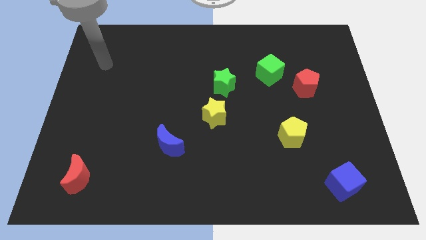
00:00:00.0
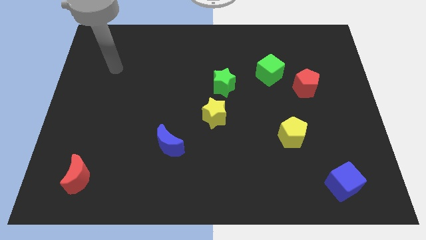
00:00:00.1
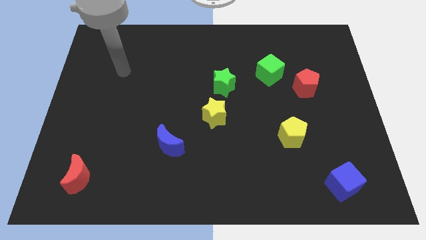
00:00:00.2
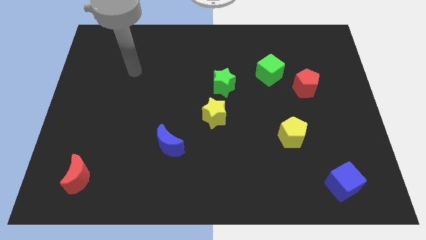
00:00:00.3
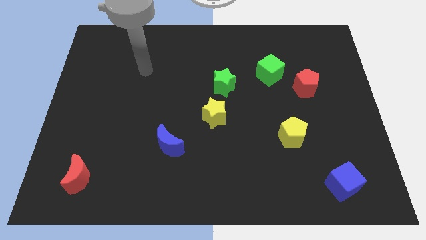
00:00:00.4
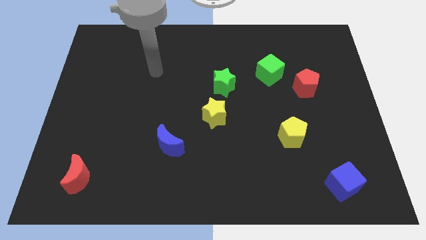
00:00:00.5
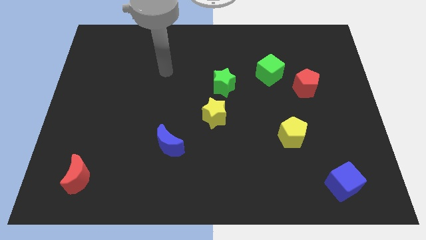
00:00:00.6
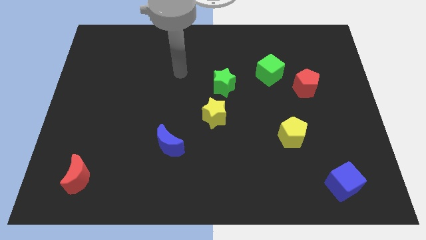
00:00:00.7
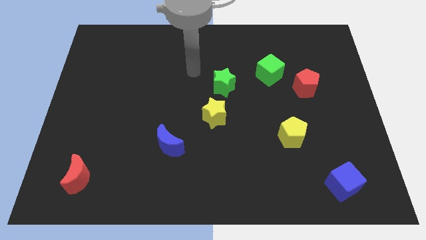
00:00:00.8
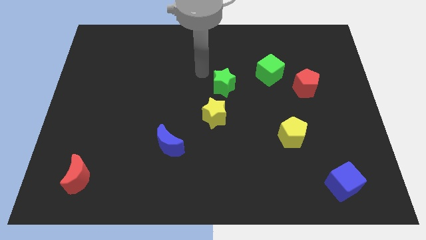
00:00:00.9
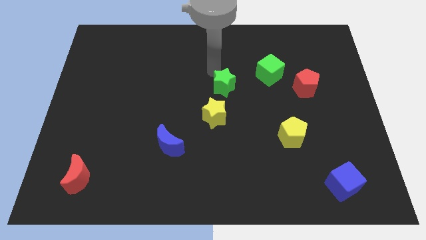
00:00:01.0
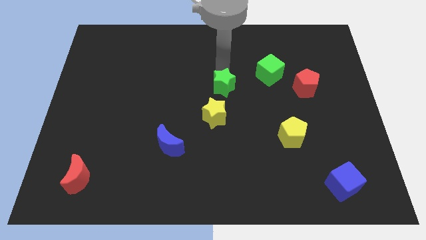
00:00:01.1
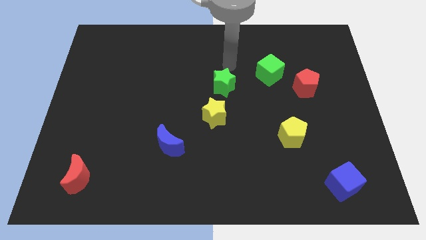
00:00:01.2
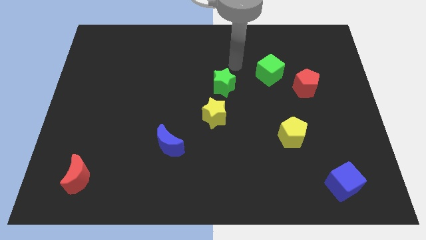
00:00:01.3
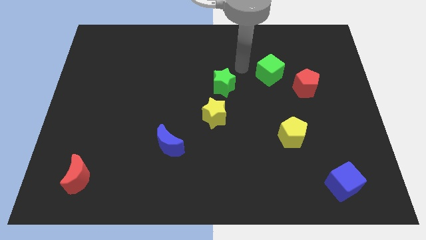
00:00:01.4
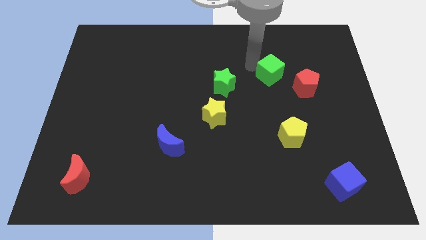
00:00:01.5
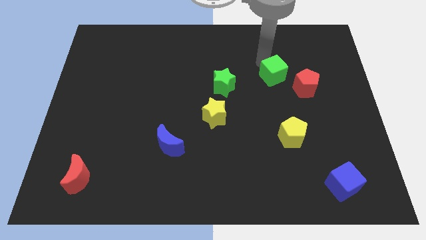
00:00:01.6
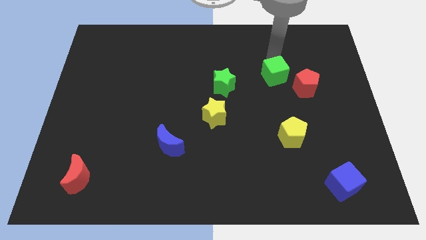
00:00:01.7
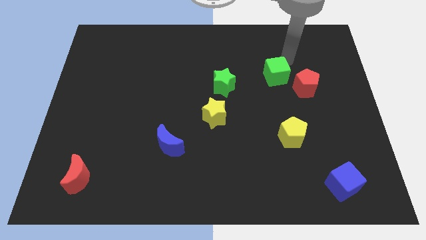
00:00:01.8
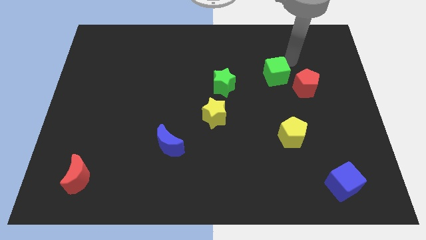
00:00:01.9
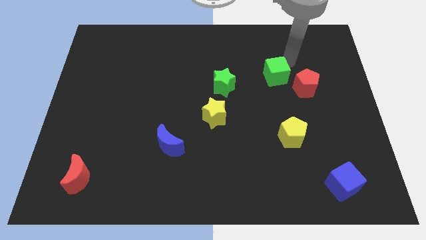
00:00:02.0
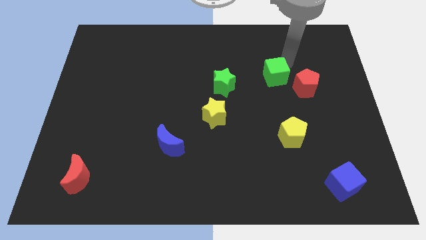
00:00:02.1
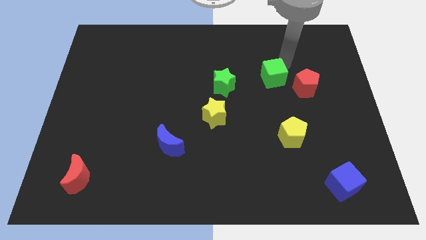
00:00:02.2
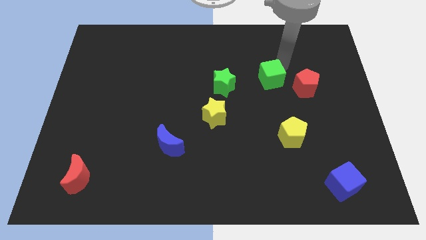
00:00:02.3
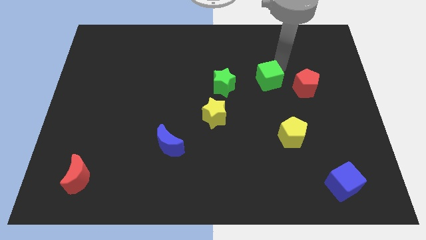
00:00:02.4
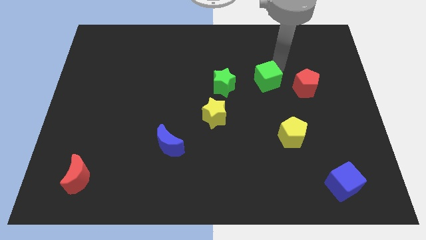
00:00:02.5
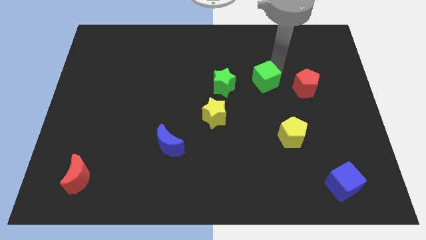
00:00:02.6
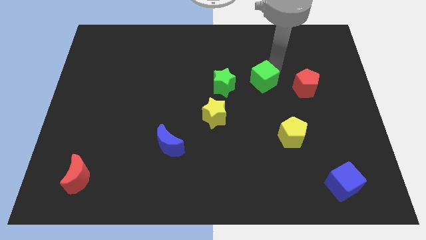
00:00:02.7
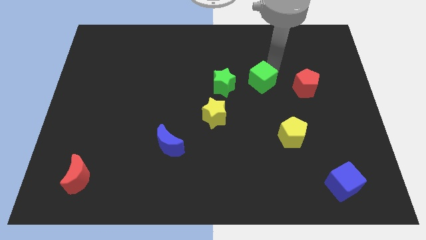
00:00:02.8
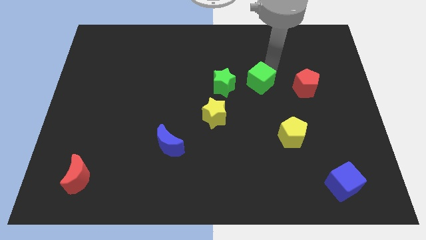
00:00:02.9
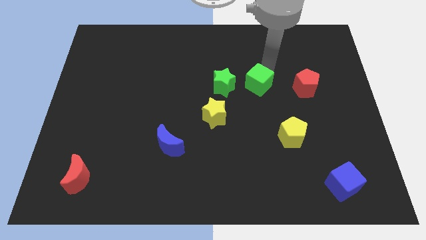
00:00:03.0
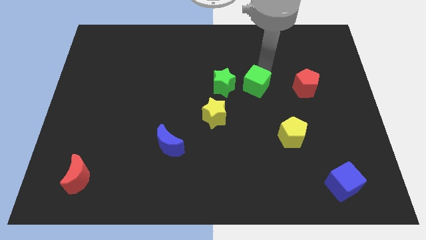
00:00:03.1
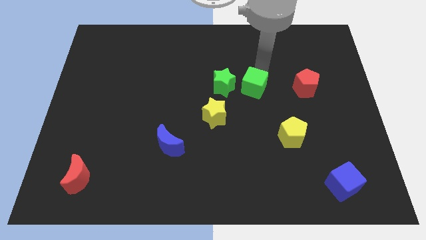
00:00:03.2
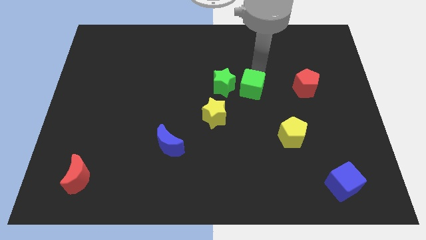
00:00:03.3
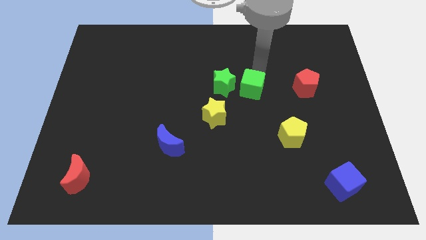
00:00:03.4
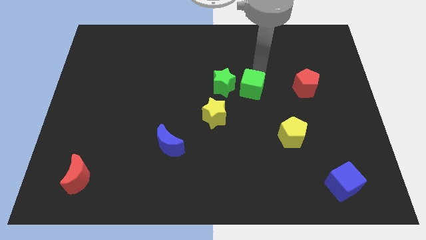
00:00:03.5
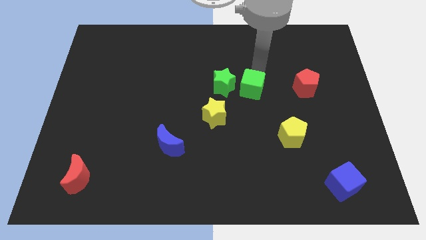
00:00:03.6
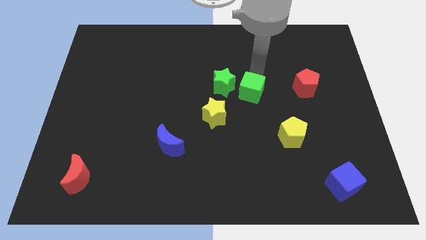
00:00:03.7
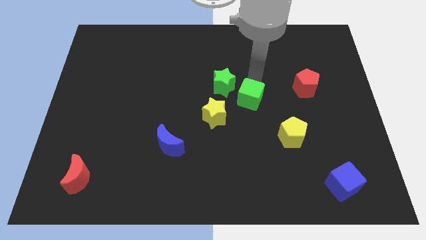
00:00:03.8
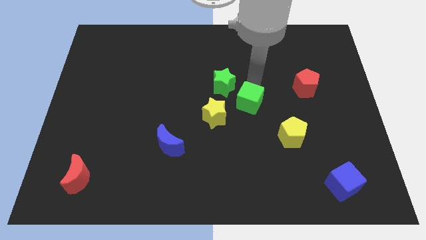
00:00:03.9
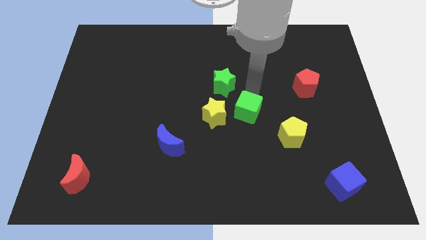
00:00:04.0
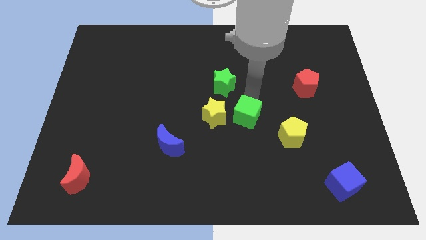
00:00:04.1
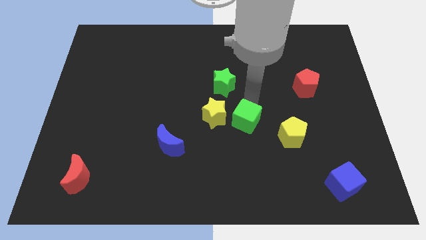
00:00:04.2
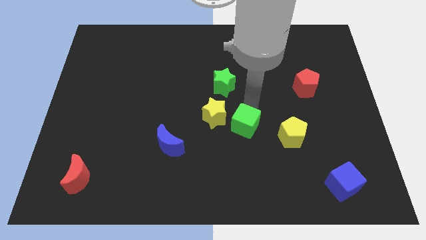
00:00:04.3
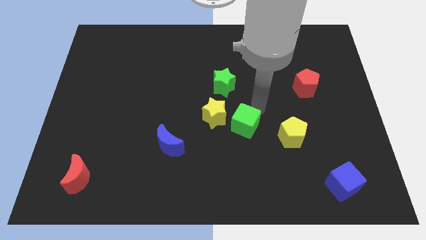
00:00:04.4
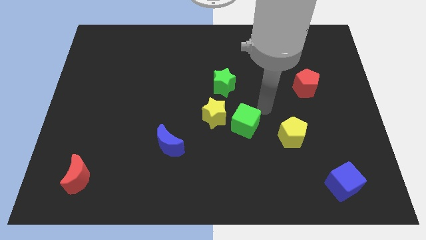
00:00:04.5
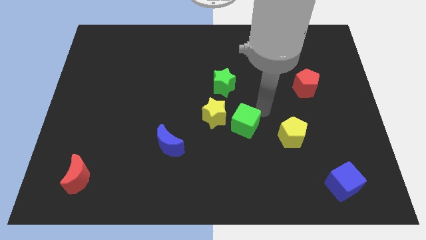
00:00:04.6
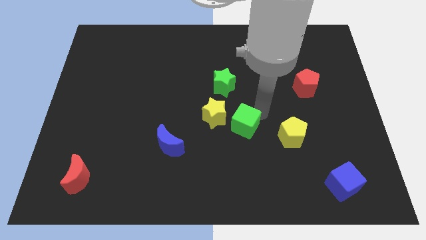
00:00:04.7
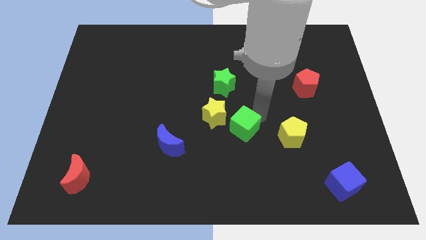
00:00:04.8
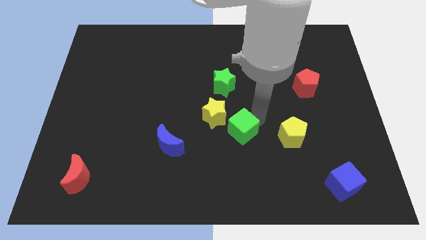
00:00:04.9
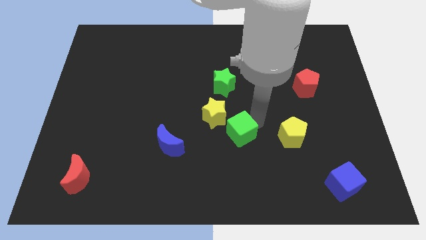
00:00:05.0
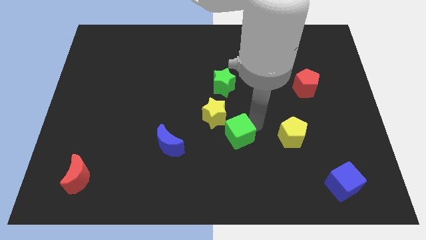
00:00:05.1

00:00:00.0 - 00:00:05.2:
put the green cube right of the blue moon

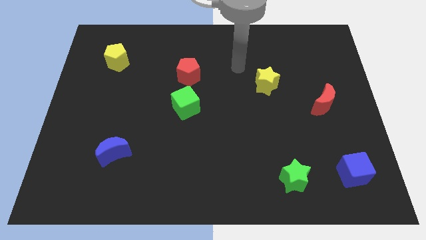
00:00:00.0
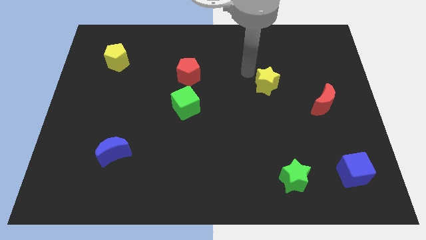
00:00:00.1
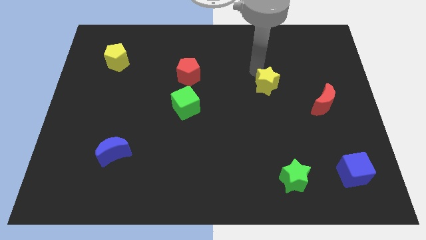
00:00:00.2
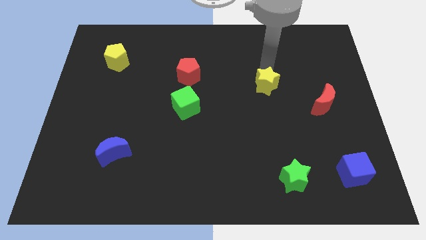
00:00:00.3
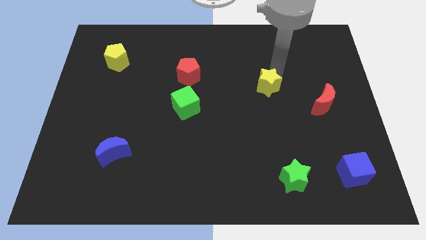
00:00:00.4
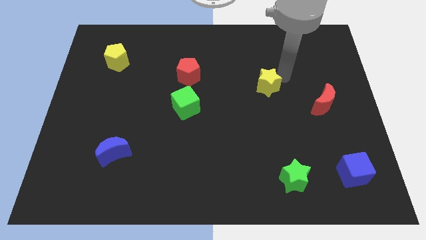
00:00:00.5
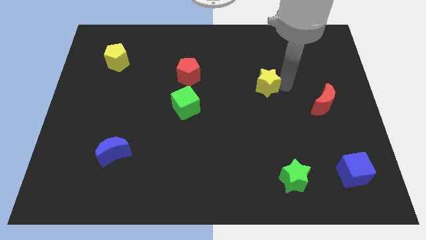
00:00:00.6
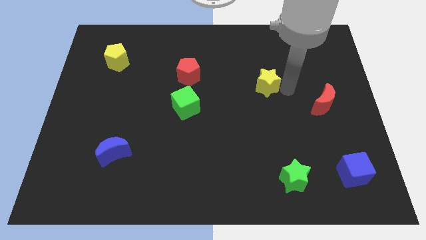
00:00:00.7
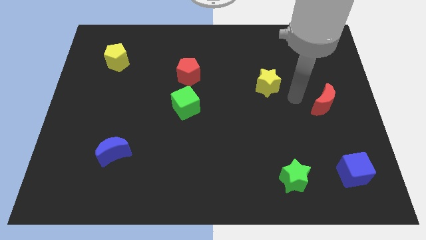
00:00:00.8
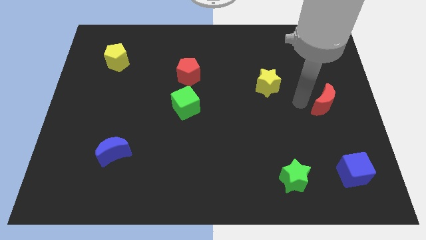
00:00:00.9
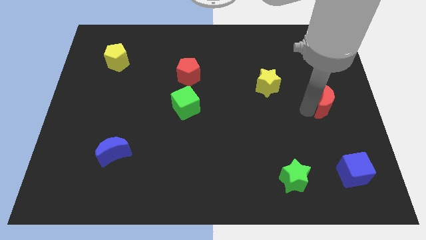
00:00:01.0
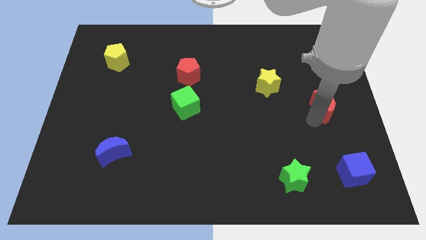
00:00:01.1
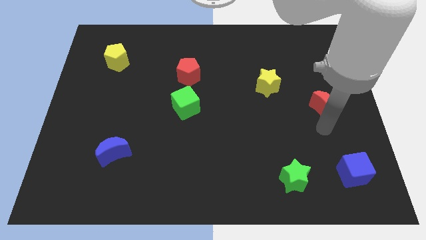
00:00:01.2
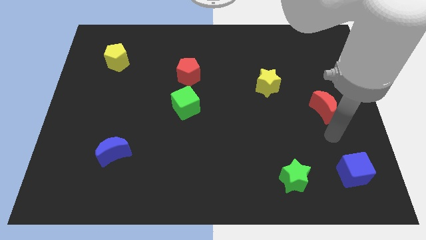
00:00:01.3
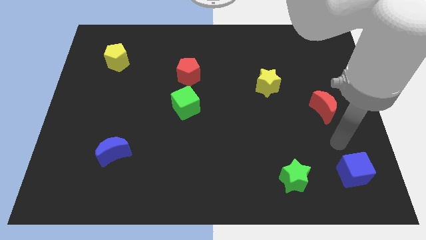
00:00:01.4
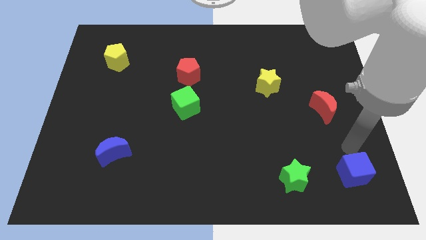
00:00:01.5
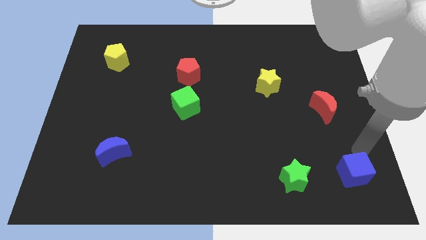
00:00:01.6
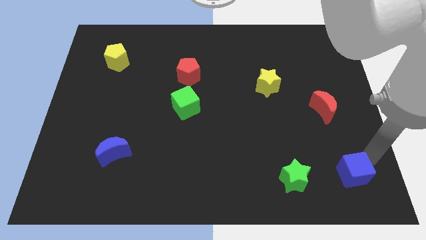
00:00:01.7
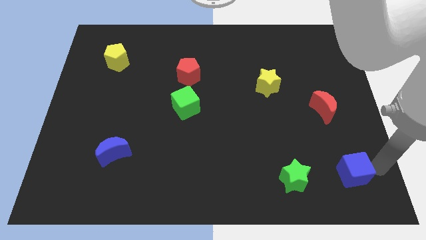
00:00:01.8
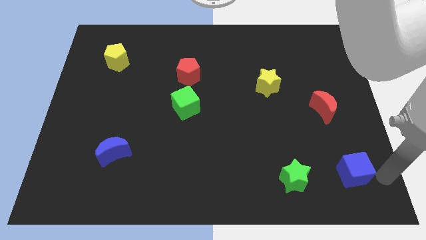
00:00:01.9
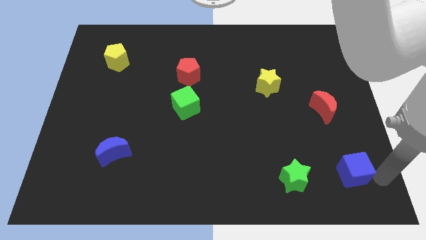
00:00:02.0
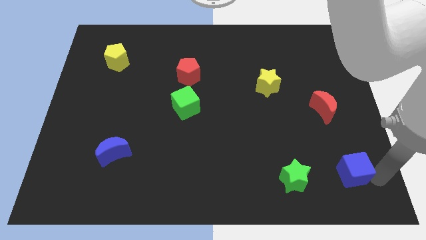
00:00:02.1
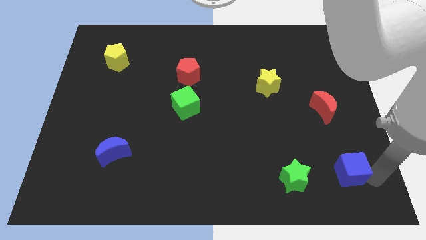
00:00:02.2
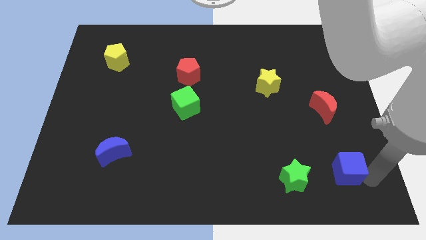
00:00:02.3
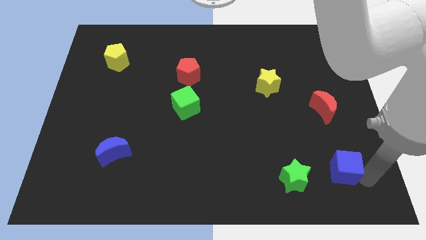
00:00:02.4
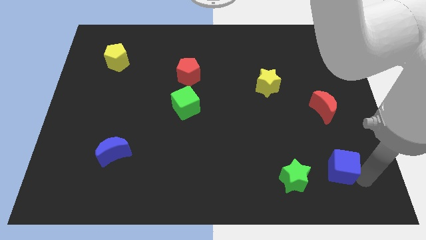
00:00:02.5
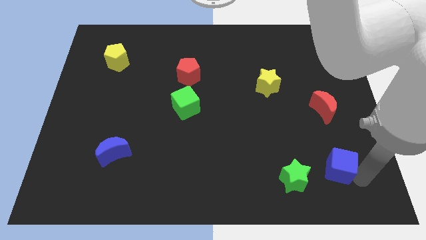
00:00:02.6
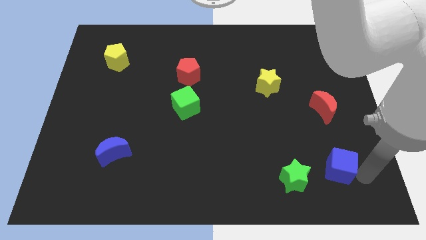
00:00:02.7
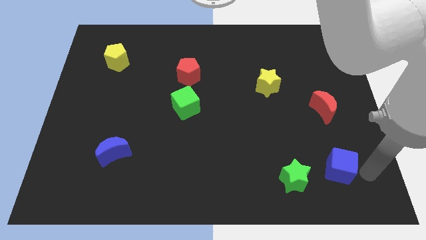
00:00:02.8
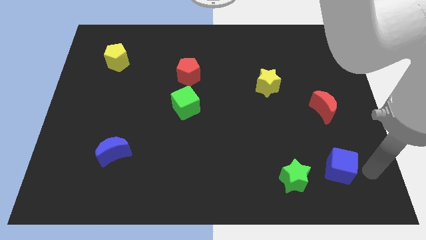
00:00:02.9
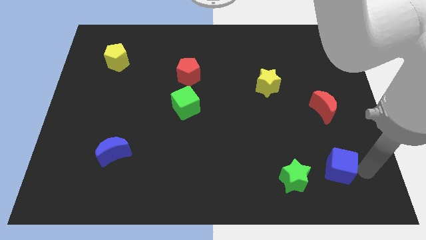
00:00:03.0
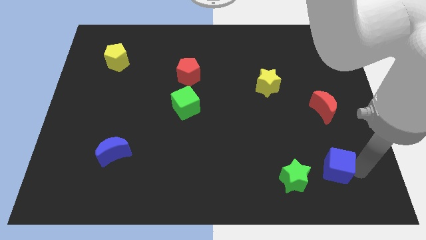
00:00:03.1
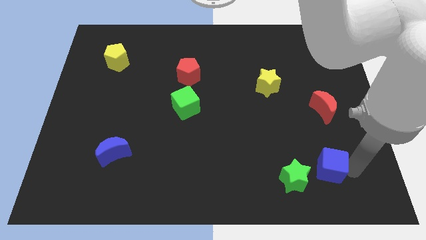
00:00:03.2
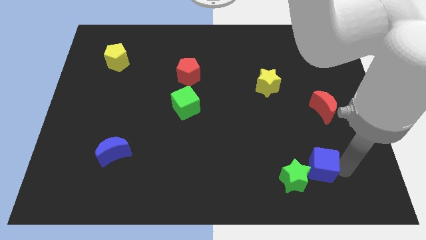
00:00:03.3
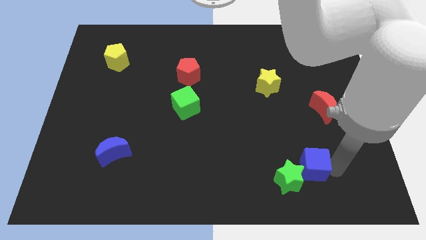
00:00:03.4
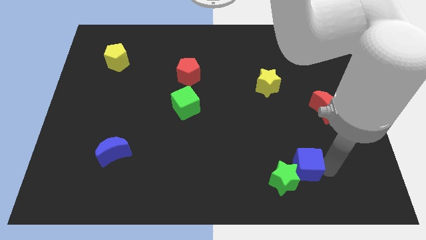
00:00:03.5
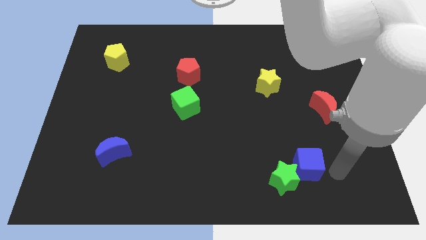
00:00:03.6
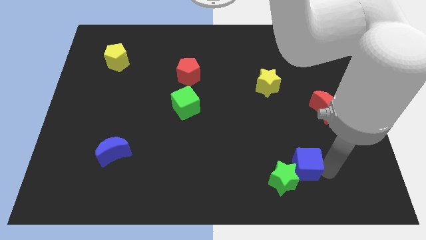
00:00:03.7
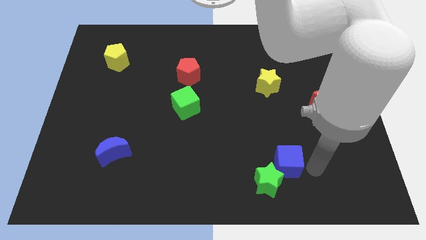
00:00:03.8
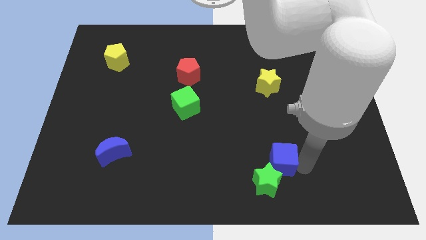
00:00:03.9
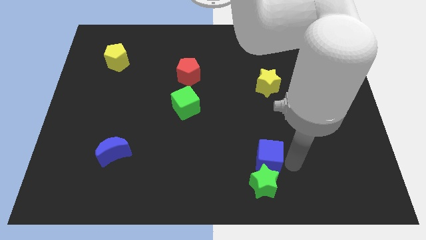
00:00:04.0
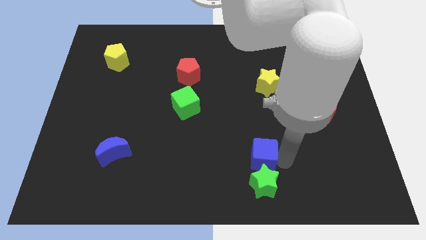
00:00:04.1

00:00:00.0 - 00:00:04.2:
put the blue cube to the top left of the green star
